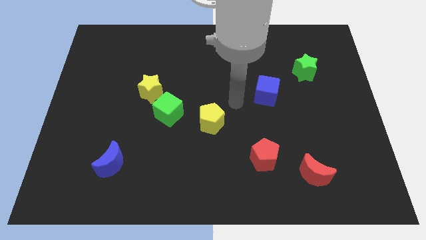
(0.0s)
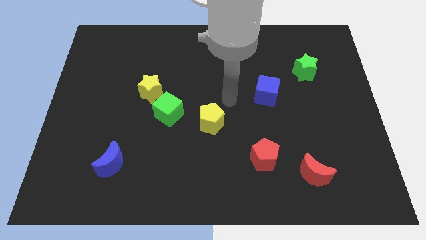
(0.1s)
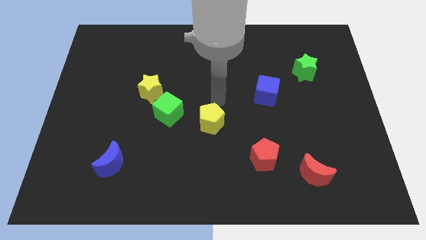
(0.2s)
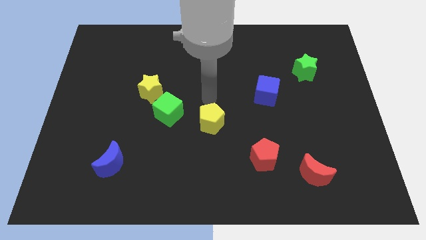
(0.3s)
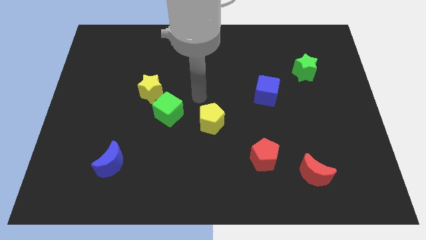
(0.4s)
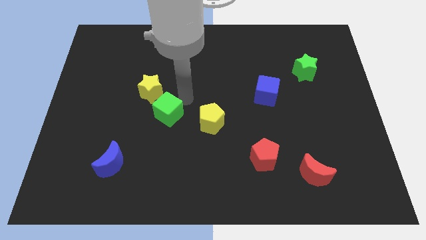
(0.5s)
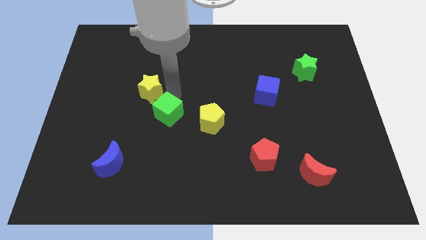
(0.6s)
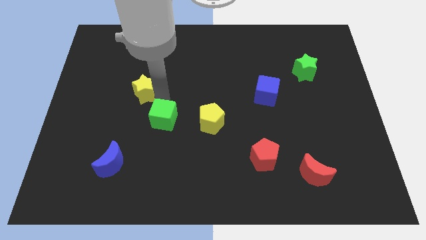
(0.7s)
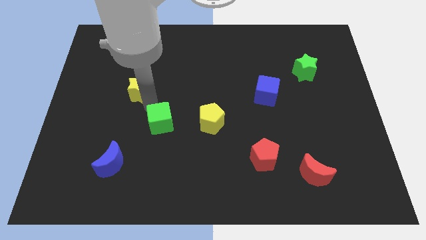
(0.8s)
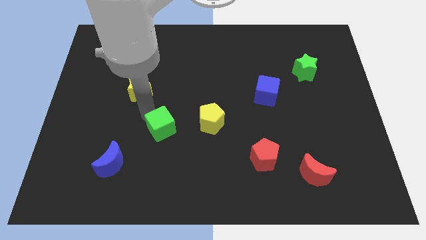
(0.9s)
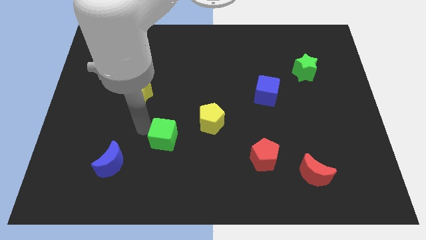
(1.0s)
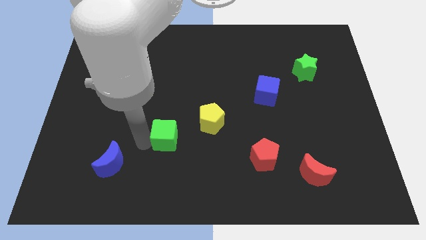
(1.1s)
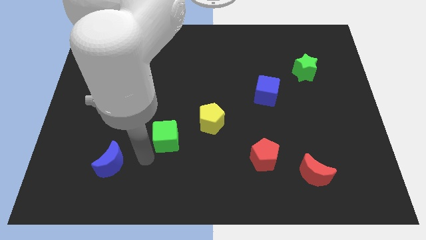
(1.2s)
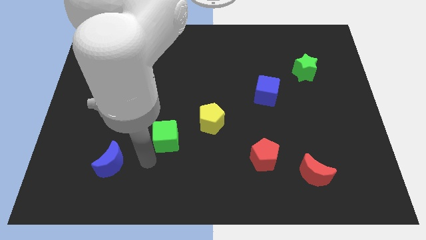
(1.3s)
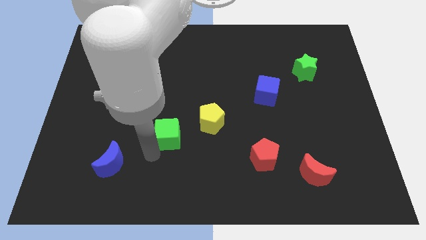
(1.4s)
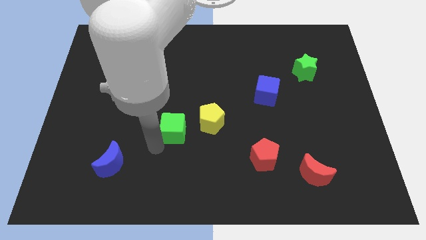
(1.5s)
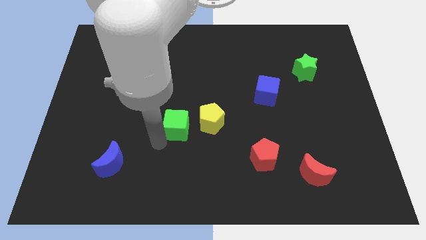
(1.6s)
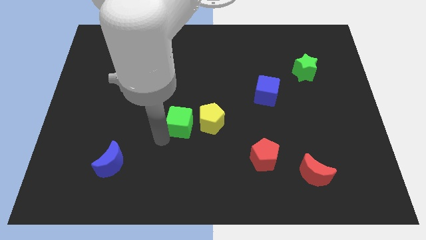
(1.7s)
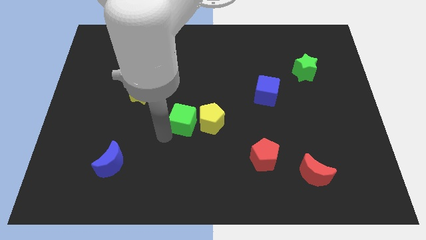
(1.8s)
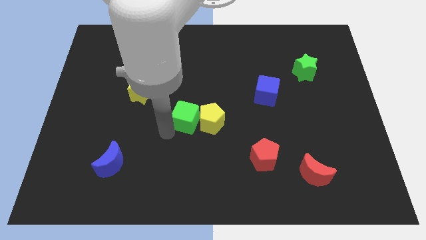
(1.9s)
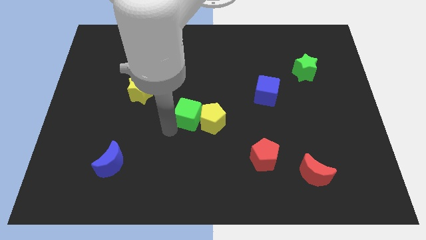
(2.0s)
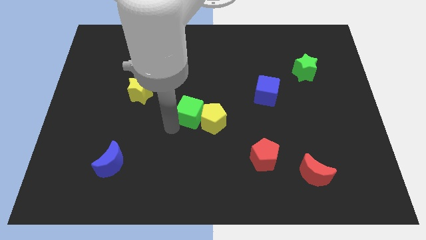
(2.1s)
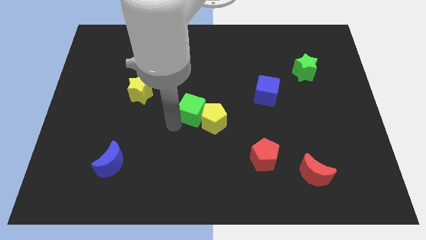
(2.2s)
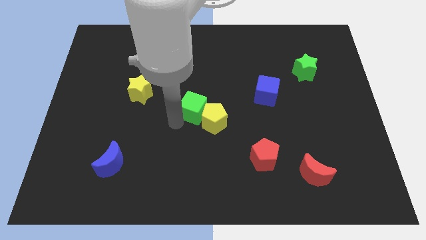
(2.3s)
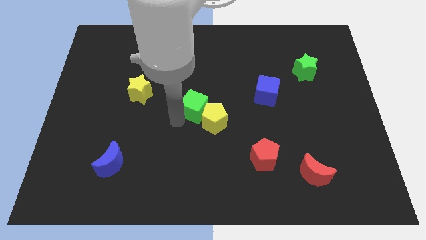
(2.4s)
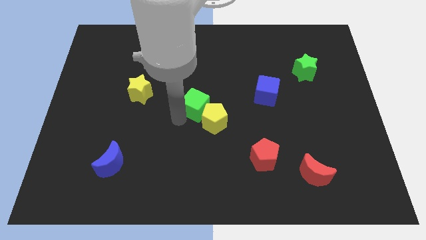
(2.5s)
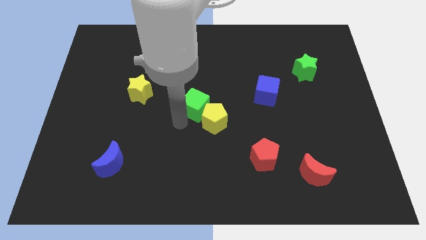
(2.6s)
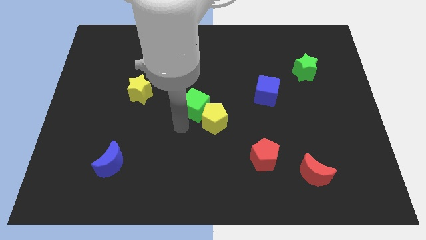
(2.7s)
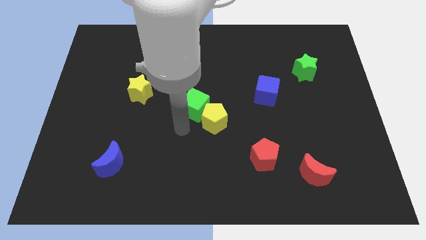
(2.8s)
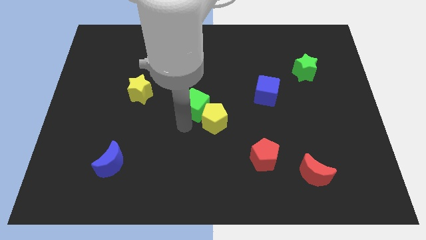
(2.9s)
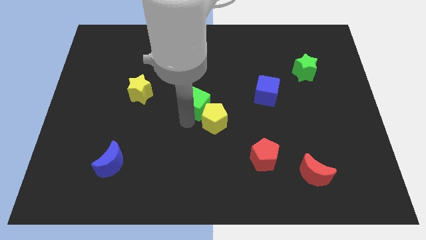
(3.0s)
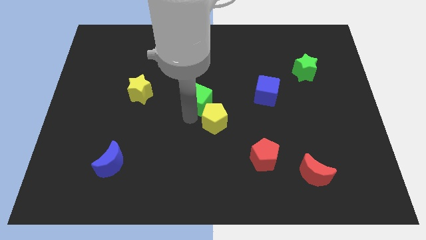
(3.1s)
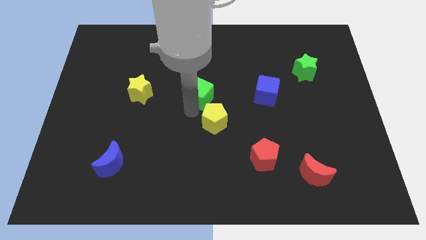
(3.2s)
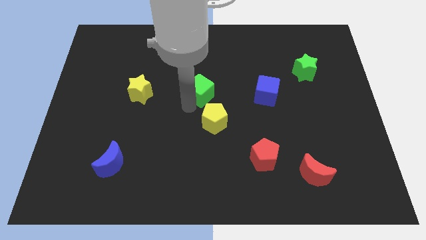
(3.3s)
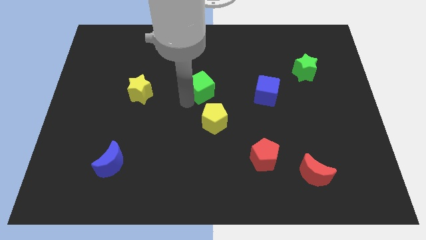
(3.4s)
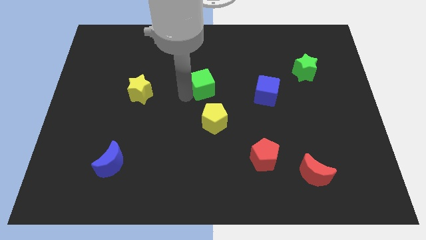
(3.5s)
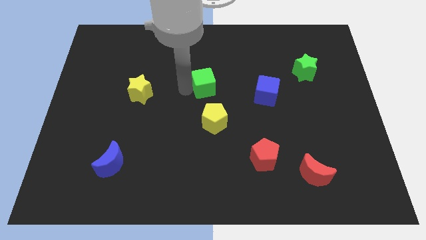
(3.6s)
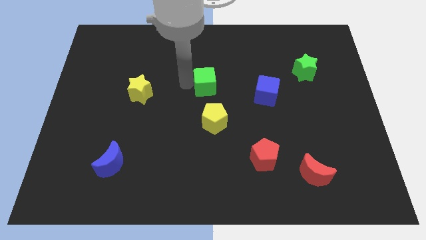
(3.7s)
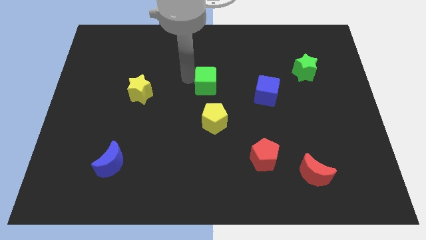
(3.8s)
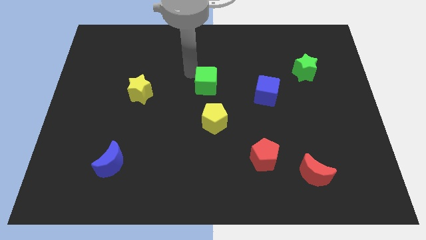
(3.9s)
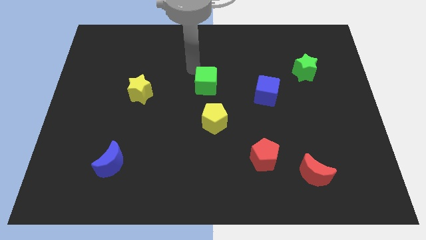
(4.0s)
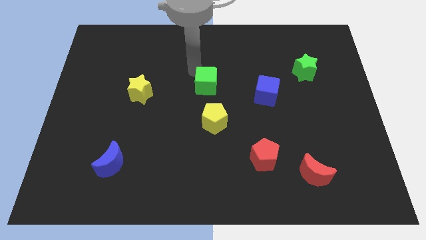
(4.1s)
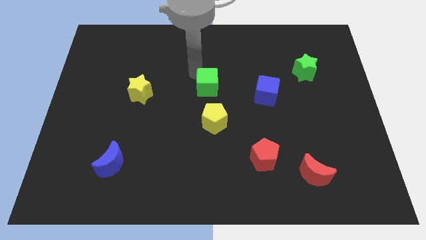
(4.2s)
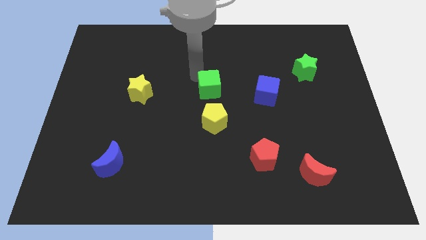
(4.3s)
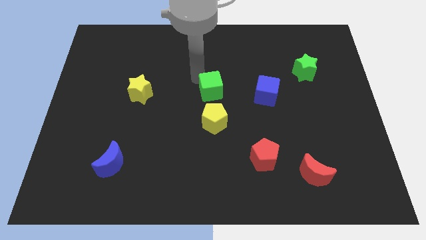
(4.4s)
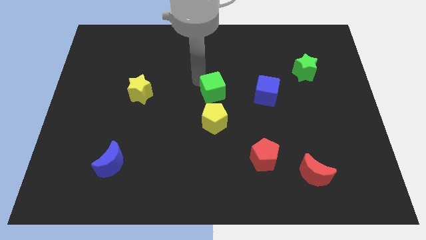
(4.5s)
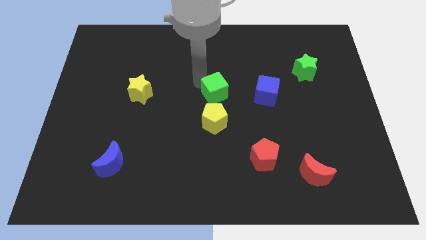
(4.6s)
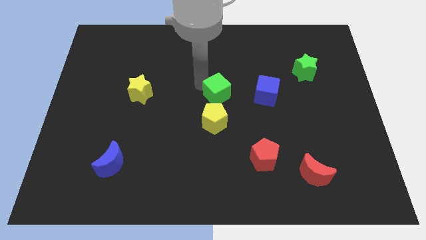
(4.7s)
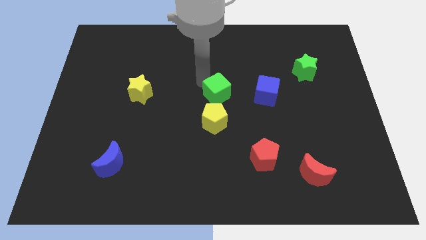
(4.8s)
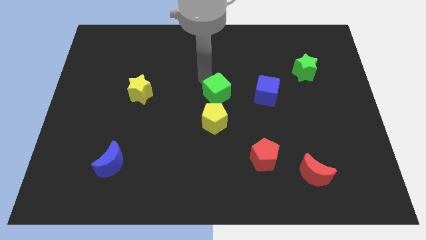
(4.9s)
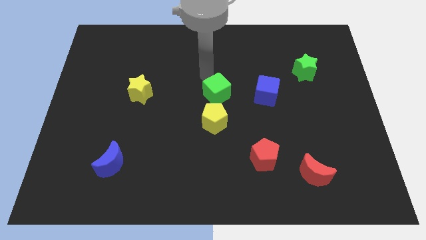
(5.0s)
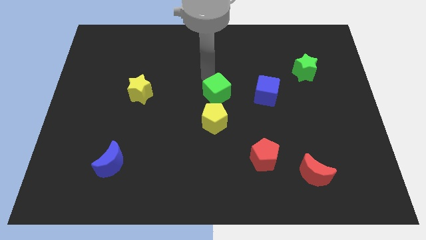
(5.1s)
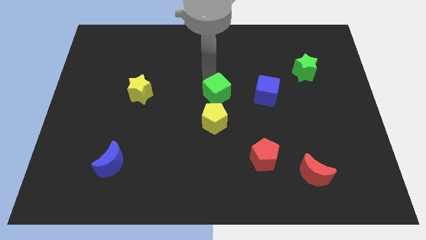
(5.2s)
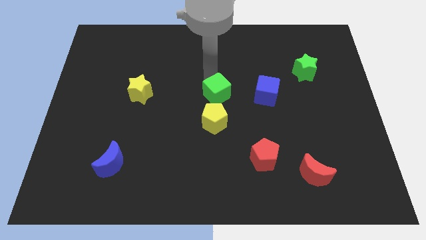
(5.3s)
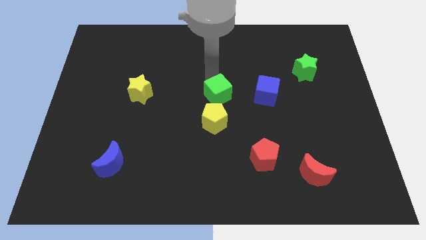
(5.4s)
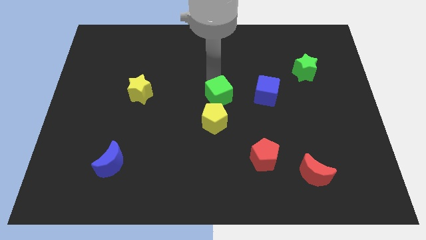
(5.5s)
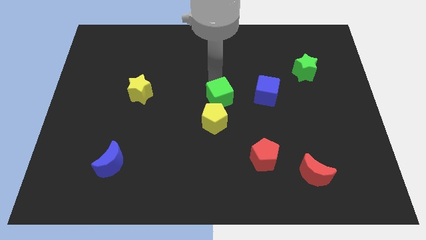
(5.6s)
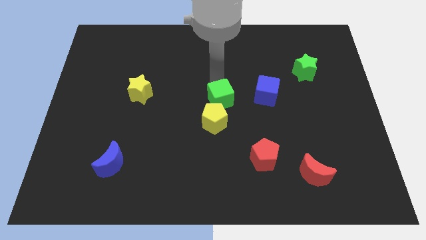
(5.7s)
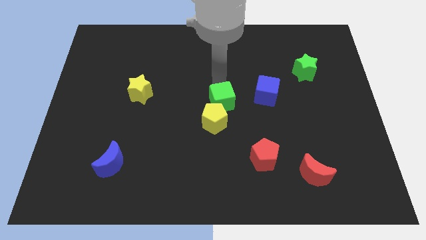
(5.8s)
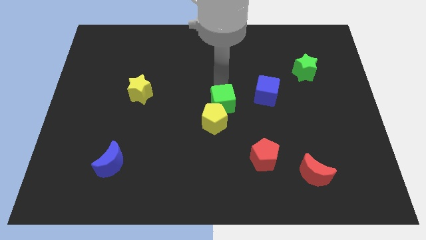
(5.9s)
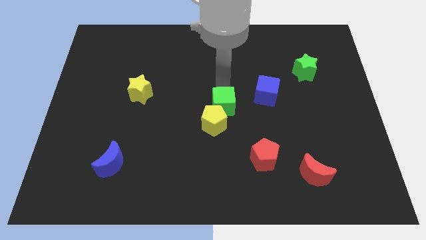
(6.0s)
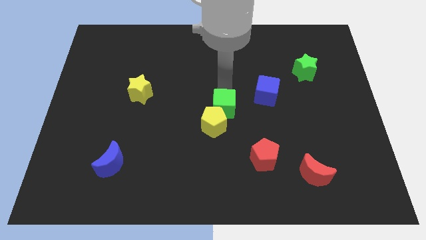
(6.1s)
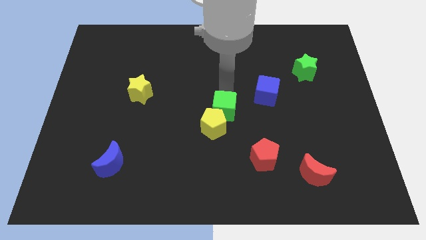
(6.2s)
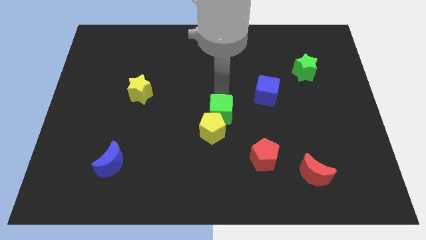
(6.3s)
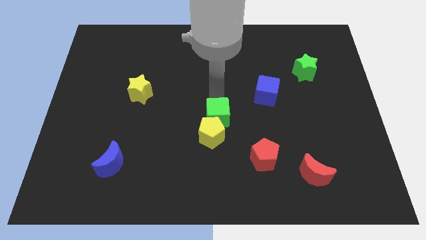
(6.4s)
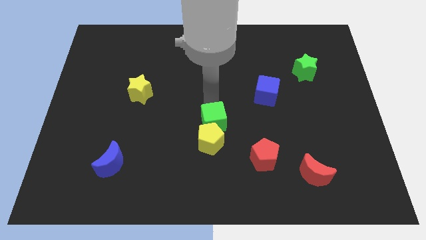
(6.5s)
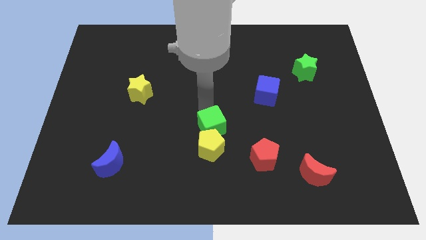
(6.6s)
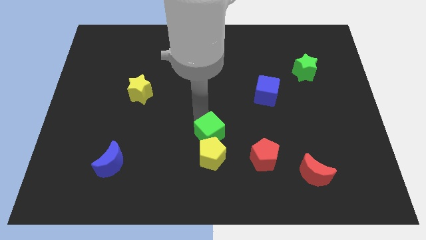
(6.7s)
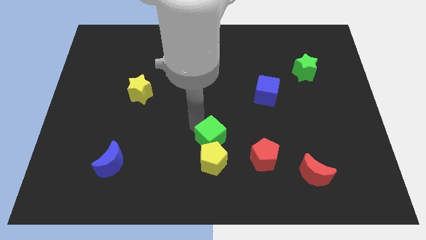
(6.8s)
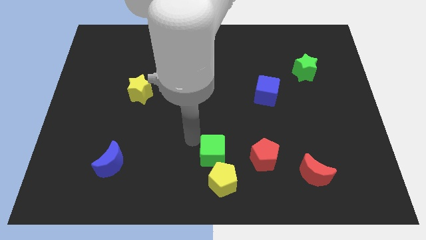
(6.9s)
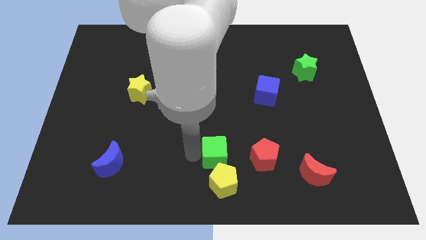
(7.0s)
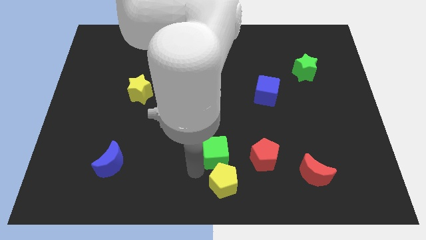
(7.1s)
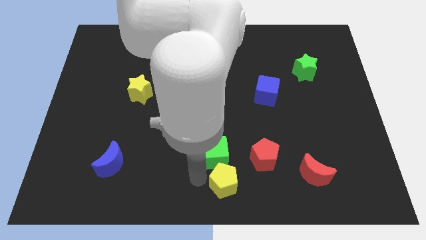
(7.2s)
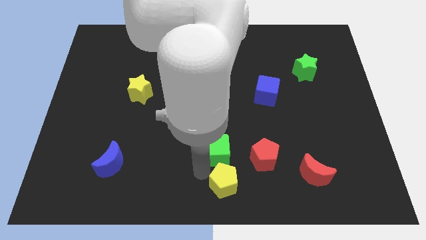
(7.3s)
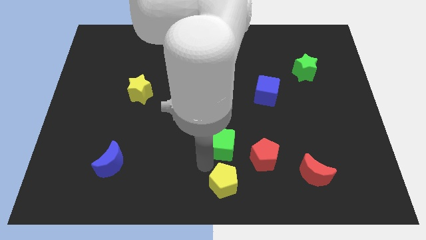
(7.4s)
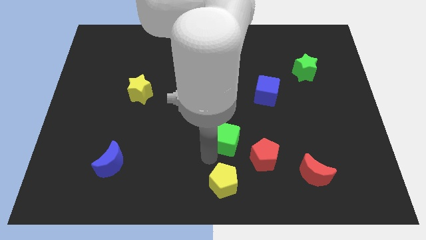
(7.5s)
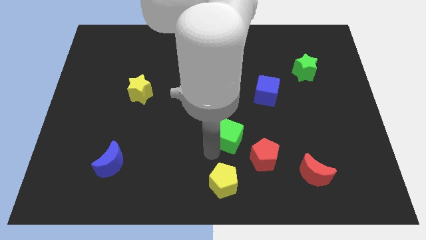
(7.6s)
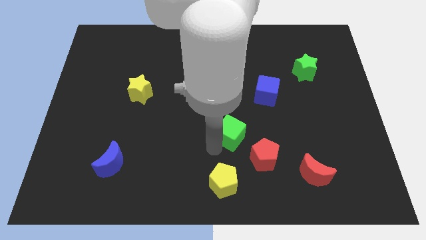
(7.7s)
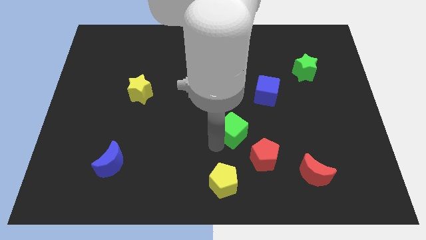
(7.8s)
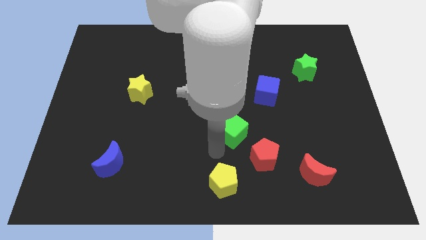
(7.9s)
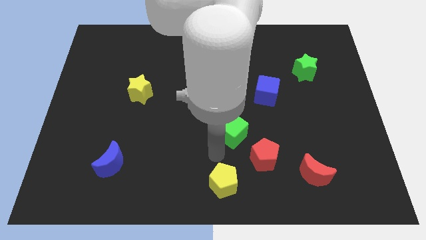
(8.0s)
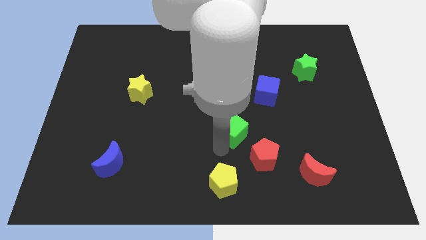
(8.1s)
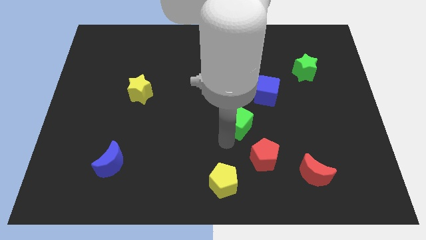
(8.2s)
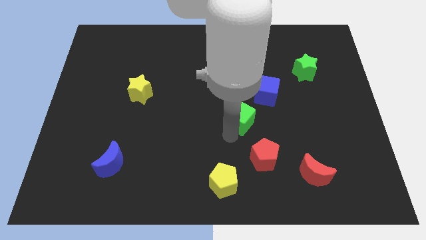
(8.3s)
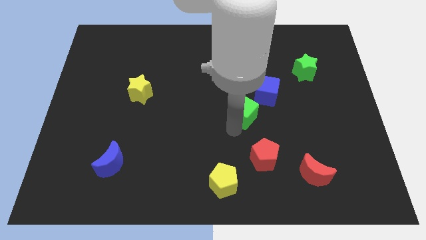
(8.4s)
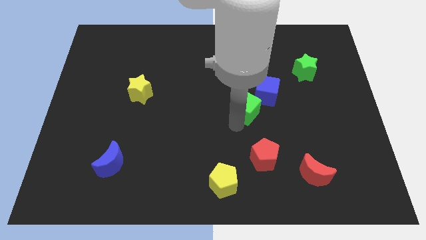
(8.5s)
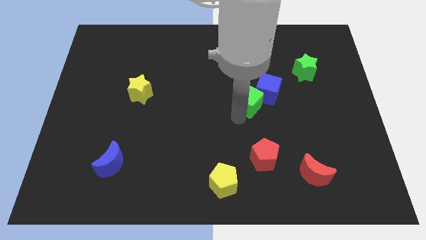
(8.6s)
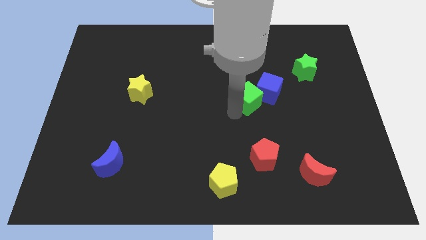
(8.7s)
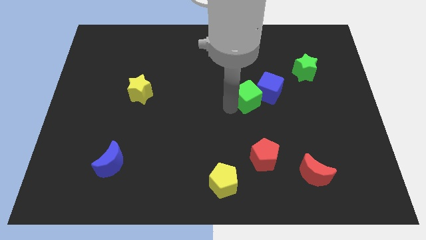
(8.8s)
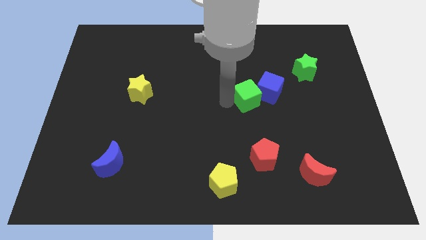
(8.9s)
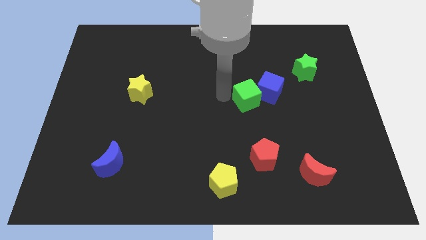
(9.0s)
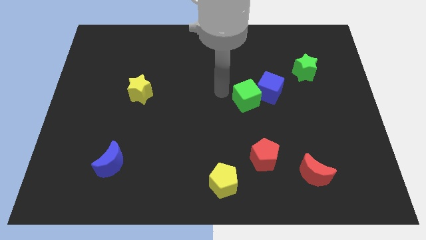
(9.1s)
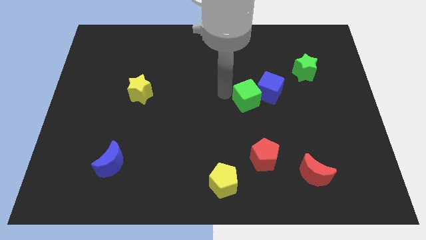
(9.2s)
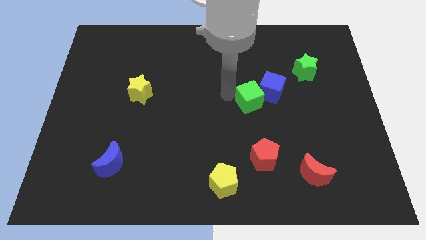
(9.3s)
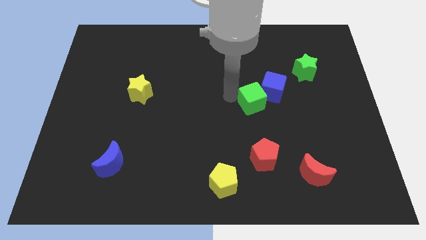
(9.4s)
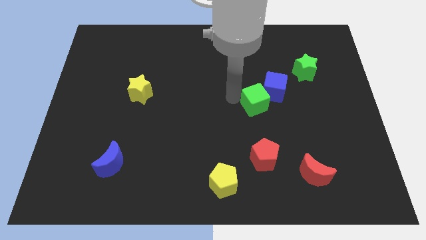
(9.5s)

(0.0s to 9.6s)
push the green cube right
